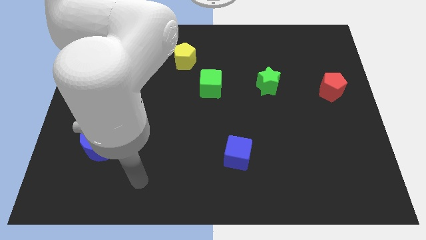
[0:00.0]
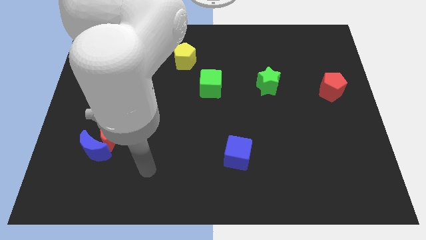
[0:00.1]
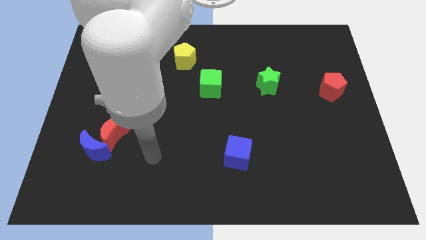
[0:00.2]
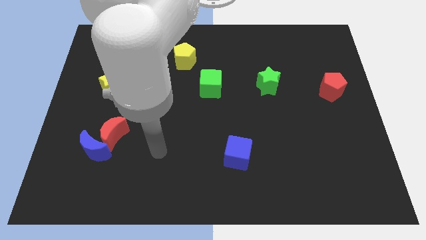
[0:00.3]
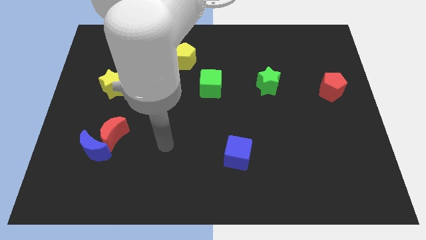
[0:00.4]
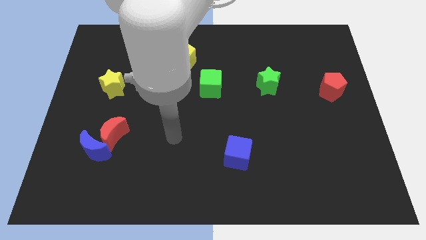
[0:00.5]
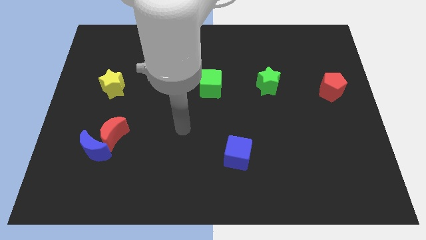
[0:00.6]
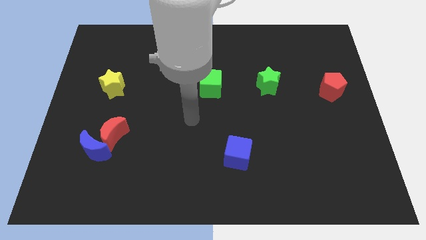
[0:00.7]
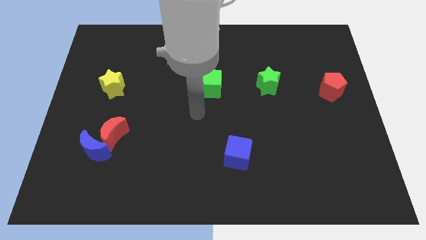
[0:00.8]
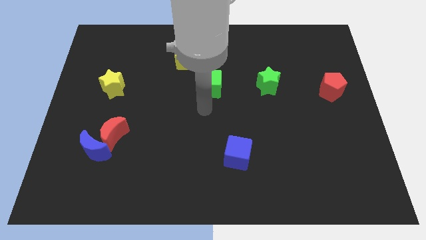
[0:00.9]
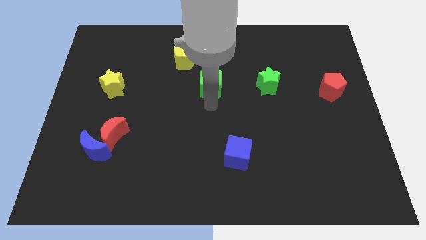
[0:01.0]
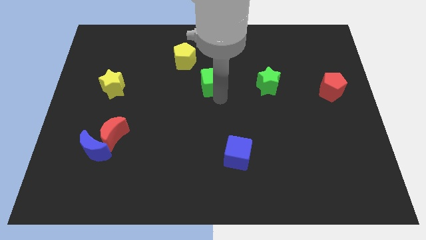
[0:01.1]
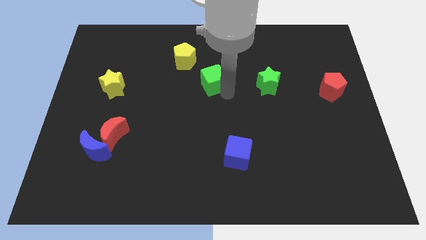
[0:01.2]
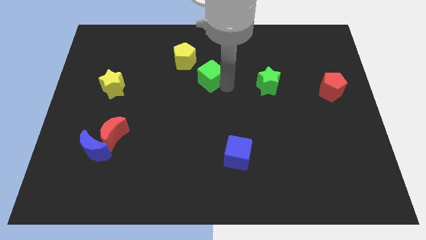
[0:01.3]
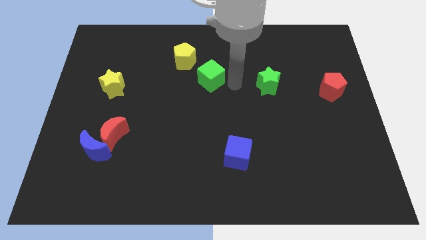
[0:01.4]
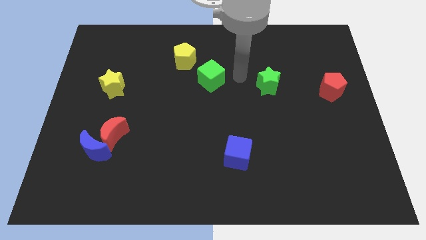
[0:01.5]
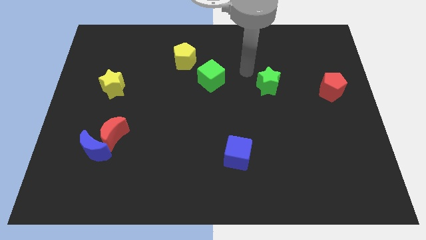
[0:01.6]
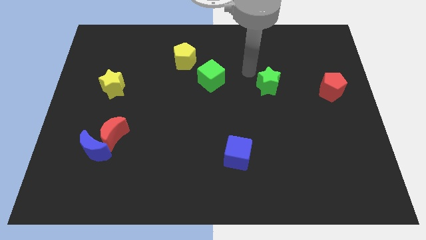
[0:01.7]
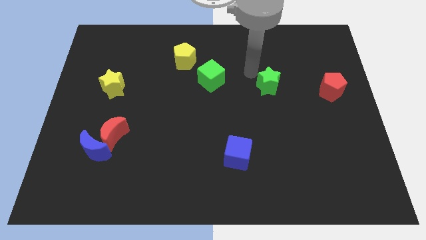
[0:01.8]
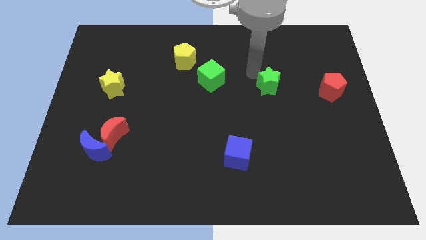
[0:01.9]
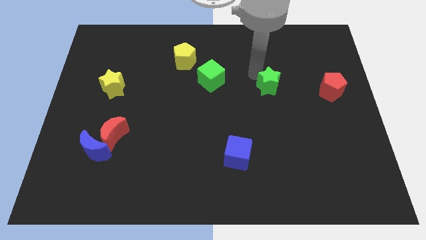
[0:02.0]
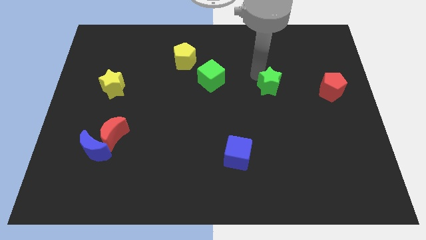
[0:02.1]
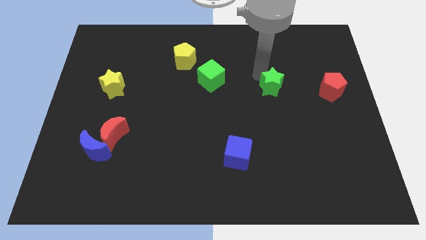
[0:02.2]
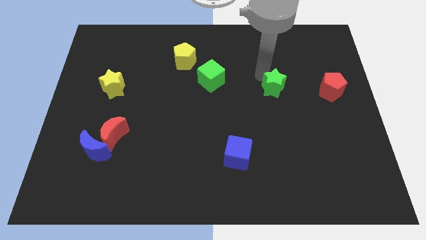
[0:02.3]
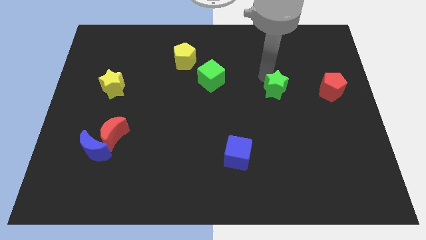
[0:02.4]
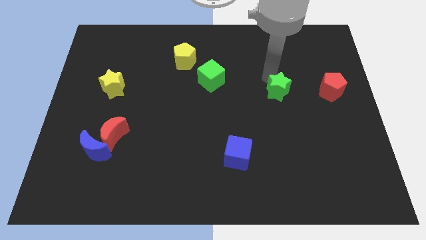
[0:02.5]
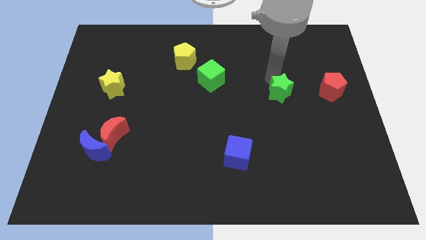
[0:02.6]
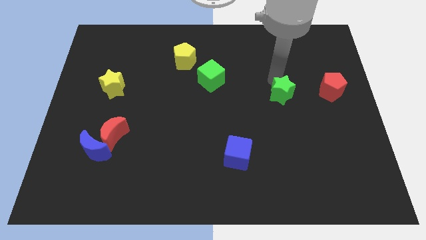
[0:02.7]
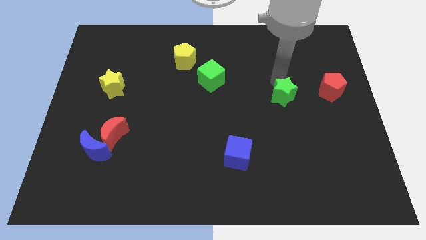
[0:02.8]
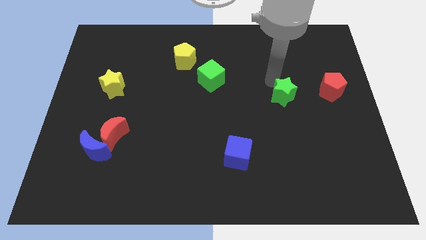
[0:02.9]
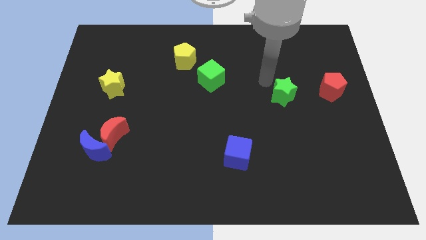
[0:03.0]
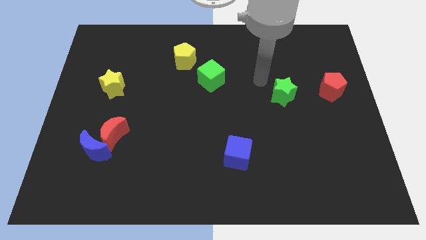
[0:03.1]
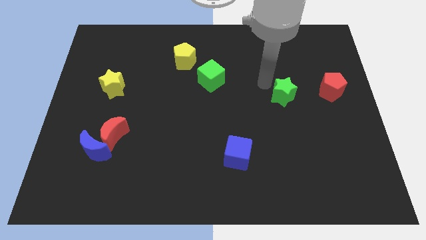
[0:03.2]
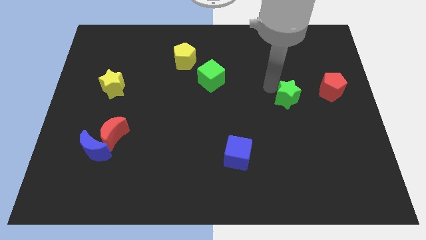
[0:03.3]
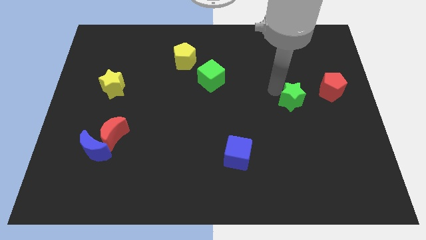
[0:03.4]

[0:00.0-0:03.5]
slide the green star down and to the right a little

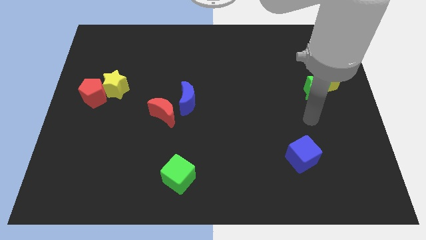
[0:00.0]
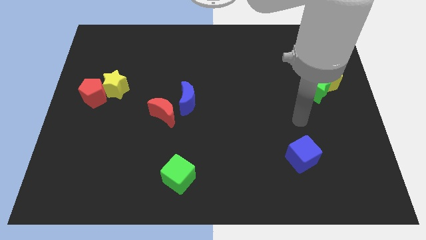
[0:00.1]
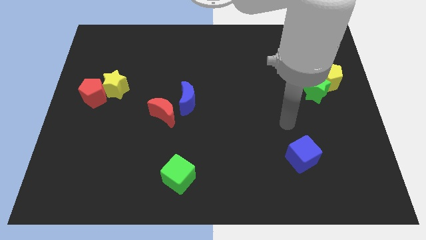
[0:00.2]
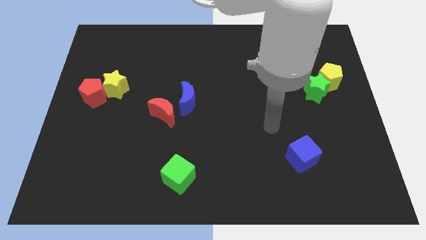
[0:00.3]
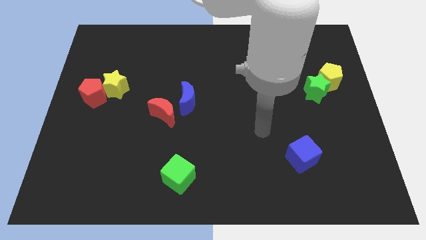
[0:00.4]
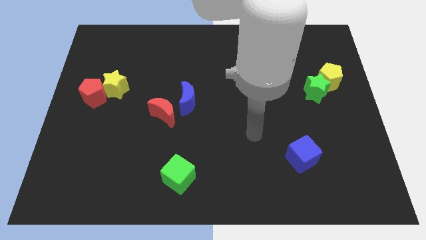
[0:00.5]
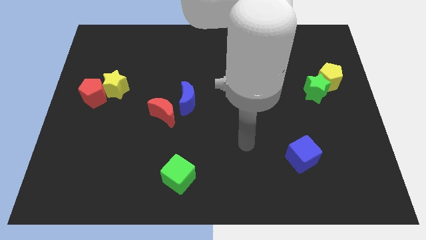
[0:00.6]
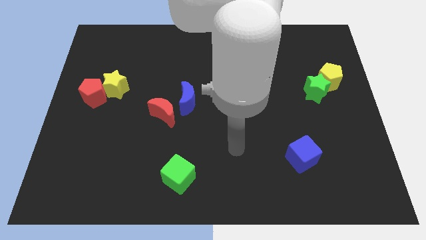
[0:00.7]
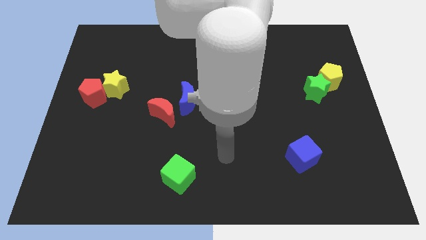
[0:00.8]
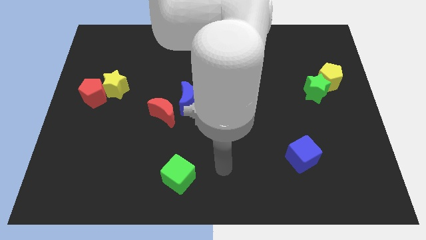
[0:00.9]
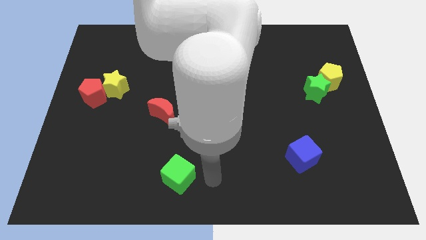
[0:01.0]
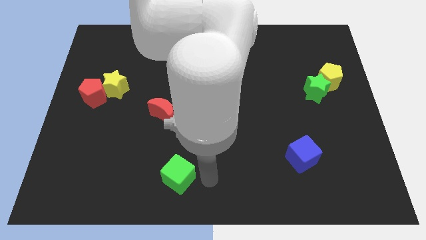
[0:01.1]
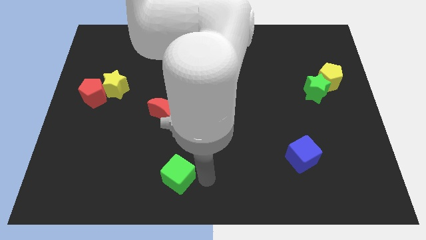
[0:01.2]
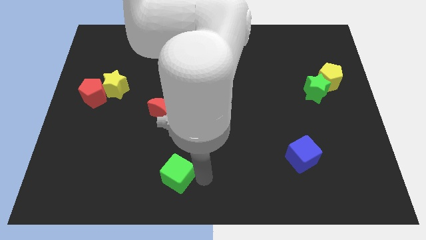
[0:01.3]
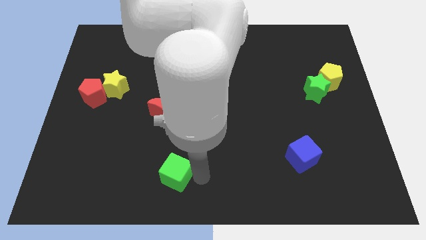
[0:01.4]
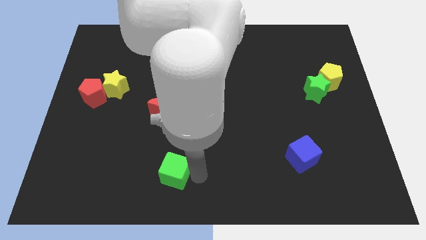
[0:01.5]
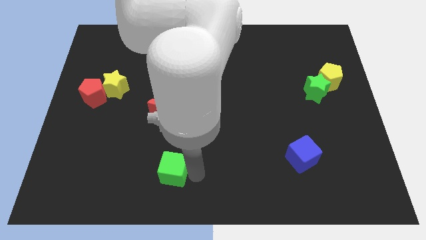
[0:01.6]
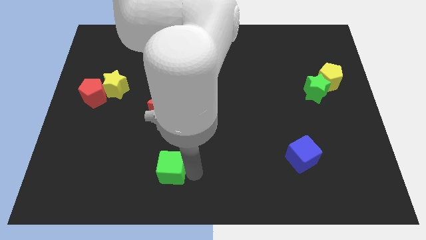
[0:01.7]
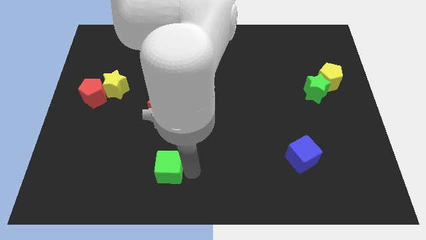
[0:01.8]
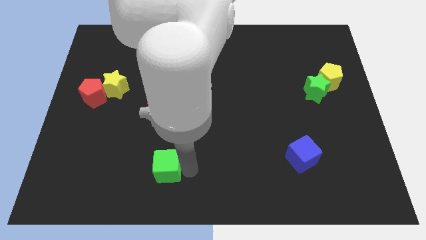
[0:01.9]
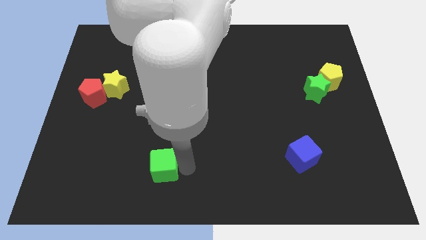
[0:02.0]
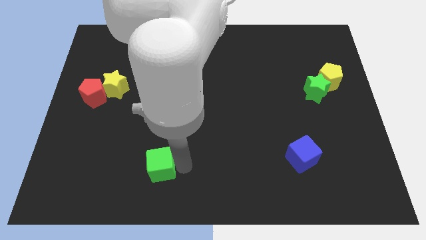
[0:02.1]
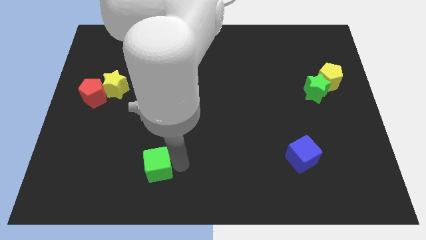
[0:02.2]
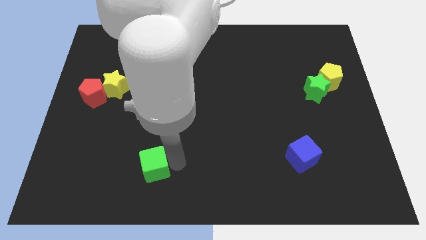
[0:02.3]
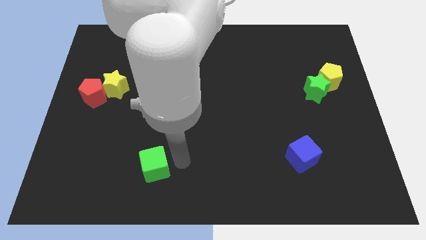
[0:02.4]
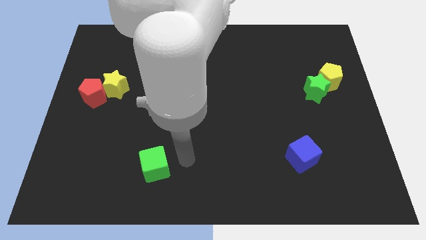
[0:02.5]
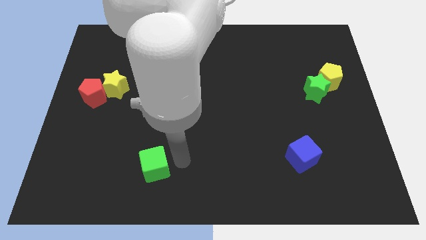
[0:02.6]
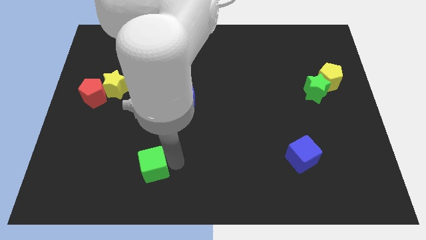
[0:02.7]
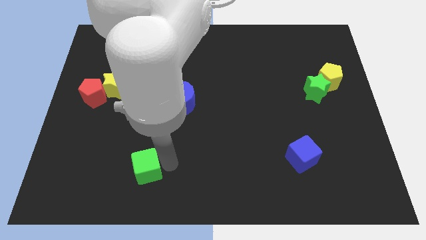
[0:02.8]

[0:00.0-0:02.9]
move the green cube left a little

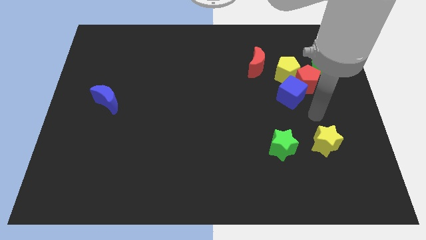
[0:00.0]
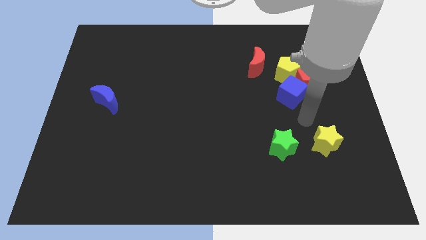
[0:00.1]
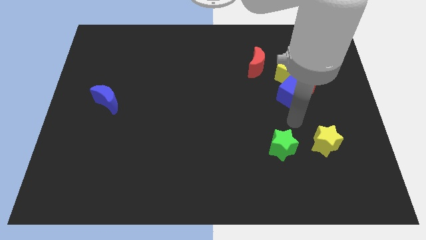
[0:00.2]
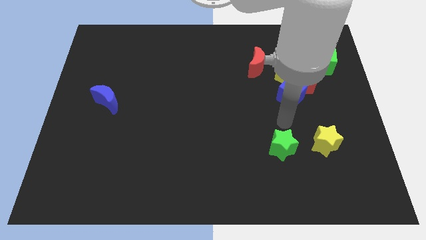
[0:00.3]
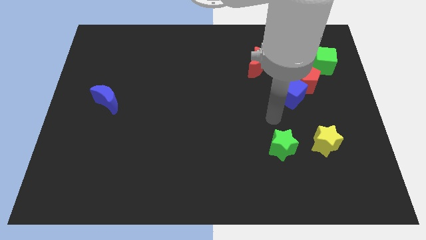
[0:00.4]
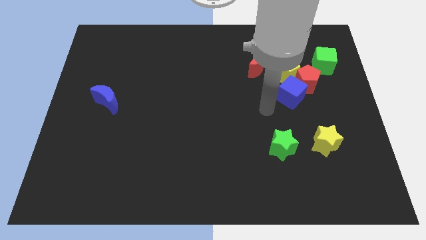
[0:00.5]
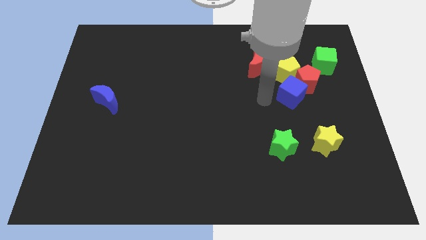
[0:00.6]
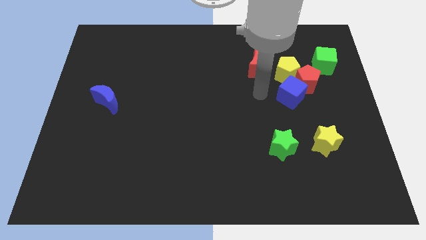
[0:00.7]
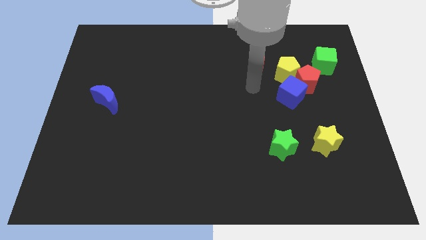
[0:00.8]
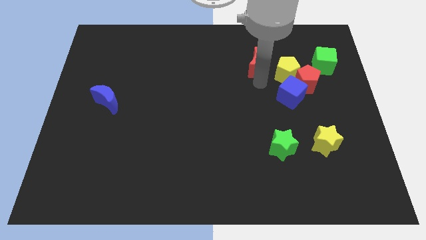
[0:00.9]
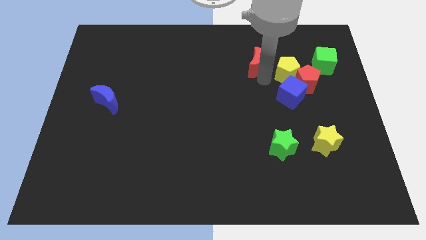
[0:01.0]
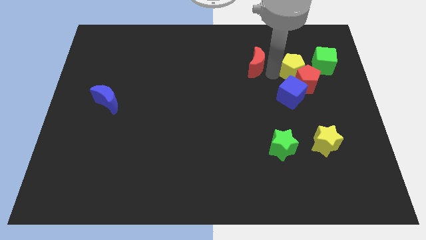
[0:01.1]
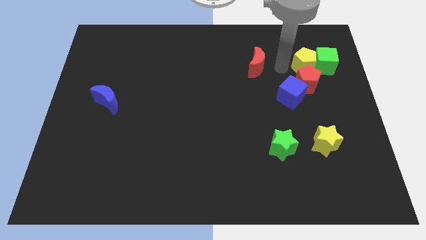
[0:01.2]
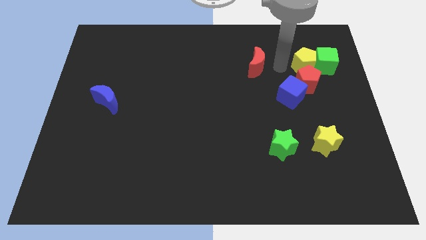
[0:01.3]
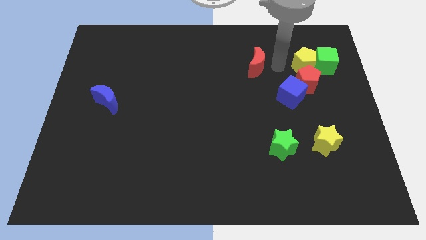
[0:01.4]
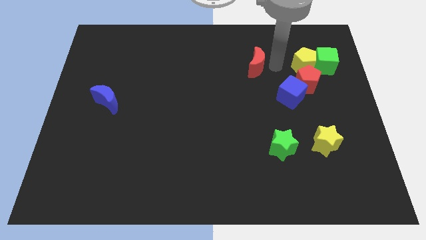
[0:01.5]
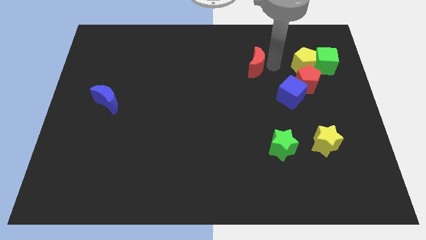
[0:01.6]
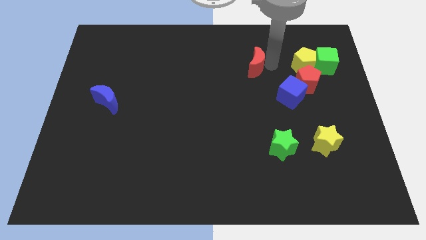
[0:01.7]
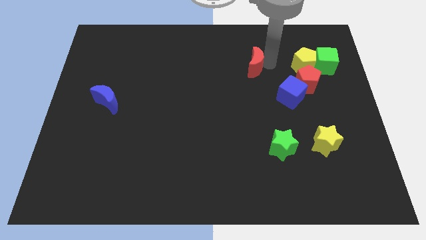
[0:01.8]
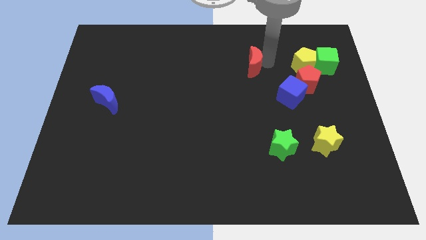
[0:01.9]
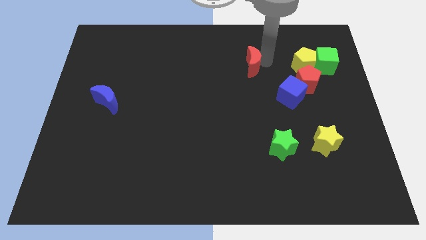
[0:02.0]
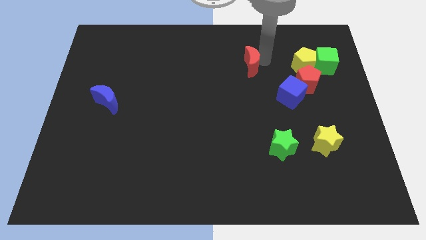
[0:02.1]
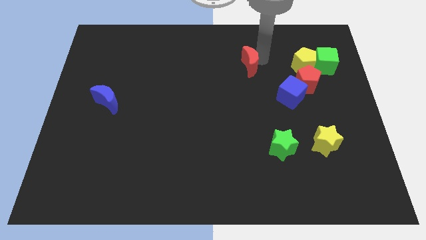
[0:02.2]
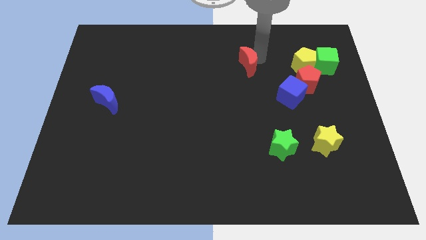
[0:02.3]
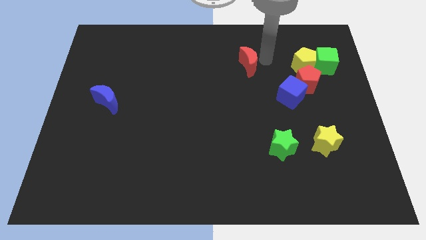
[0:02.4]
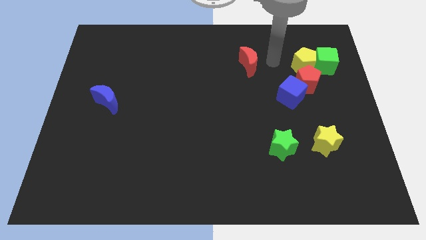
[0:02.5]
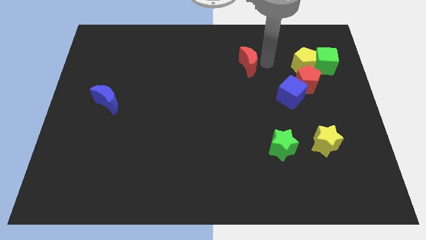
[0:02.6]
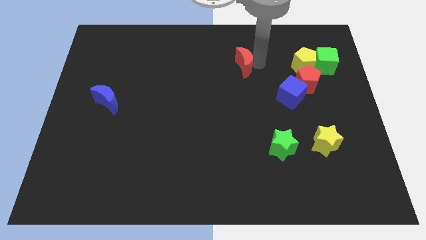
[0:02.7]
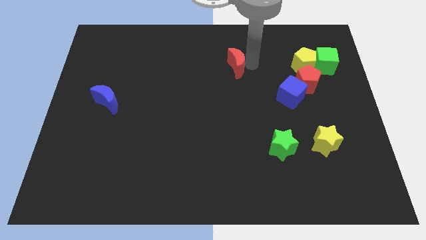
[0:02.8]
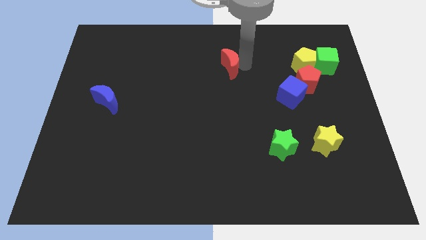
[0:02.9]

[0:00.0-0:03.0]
push the red moon a little to the left
